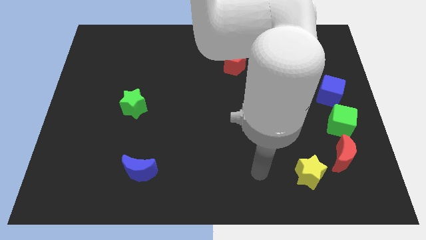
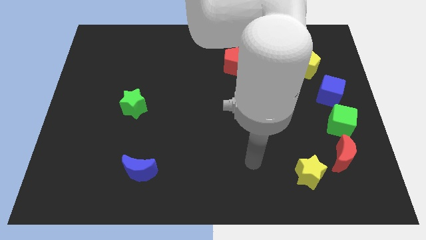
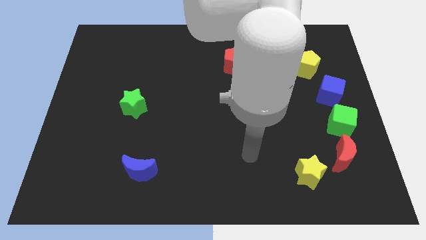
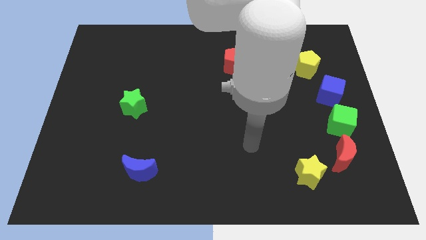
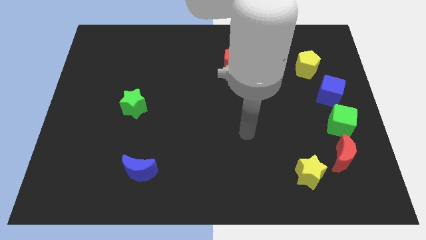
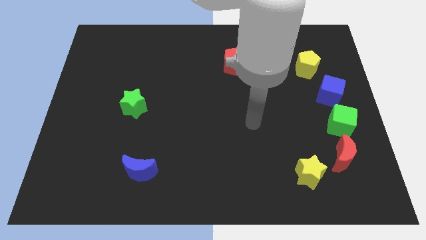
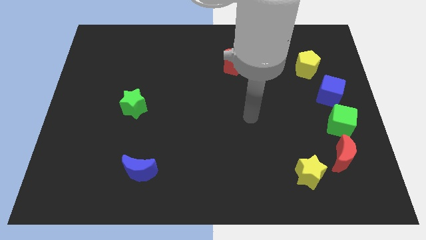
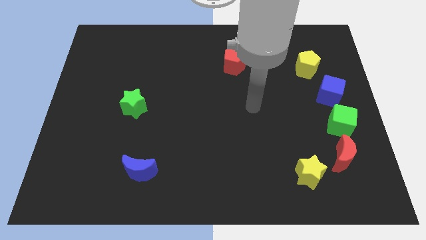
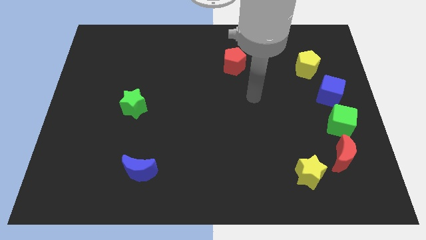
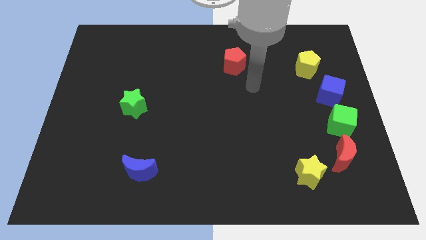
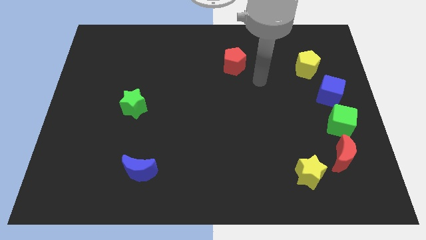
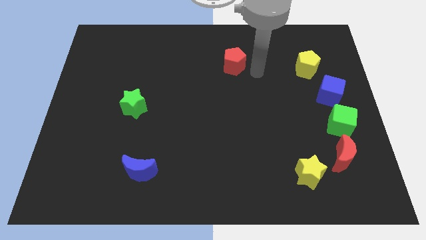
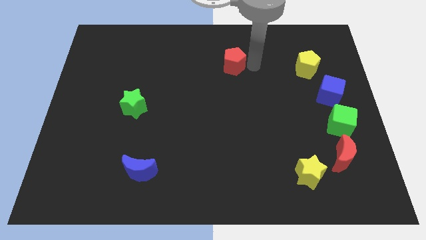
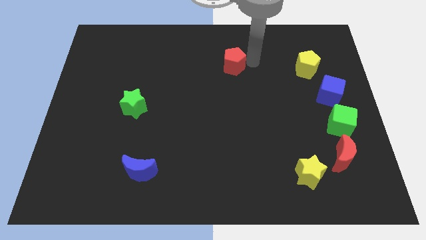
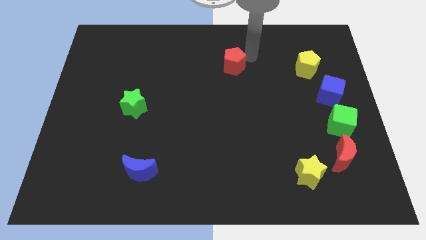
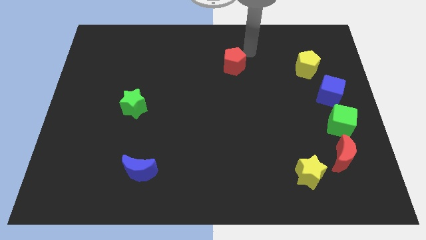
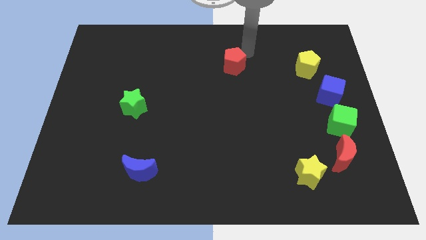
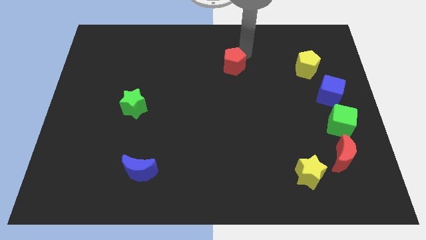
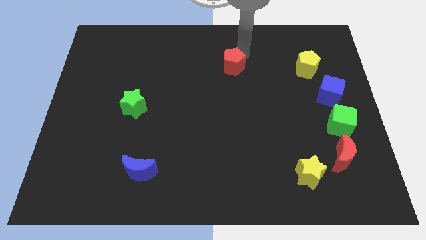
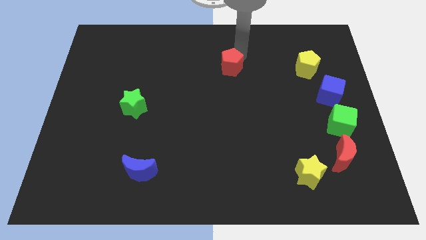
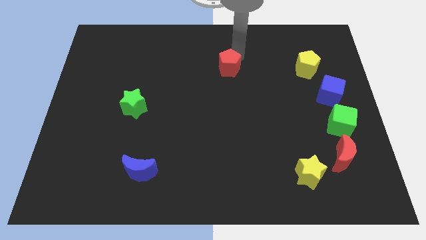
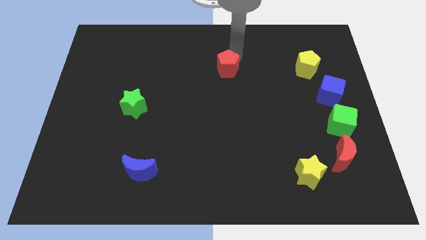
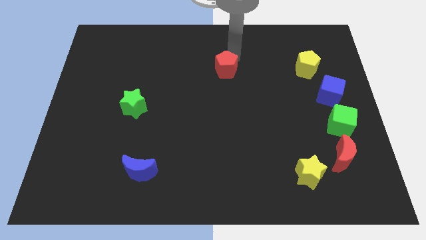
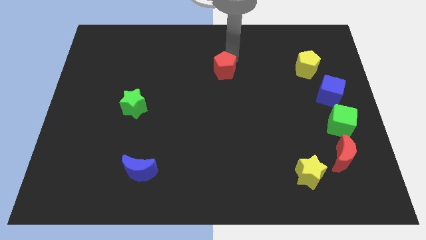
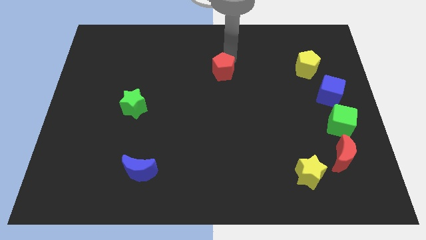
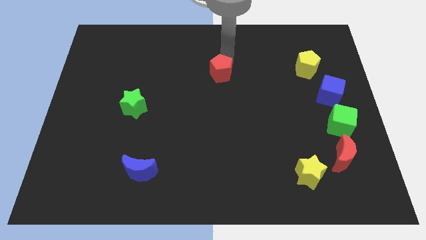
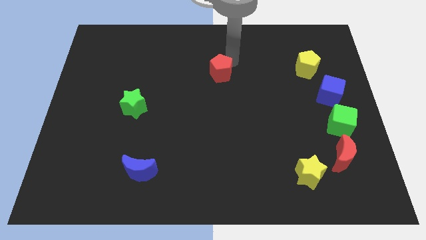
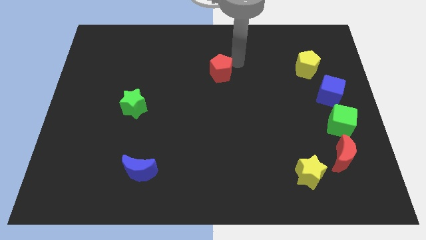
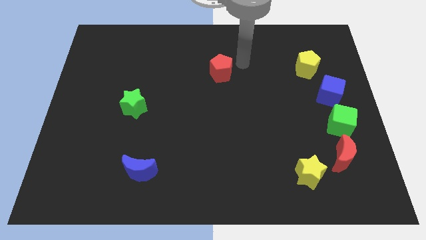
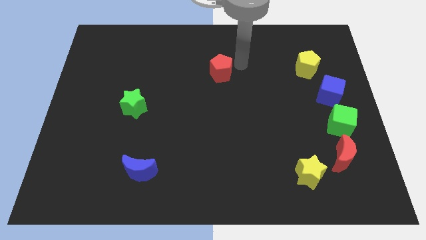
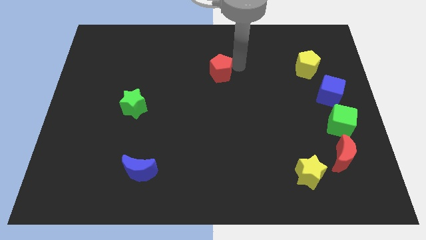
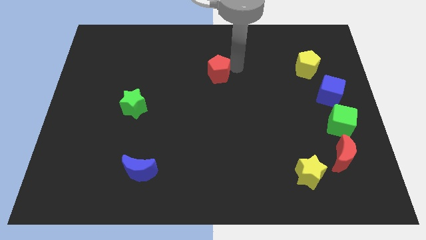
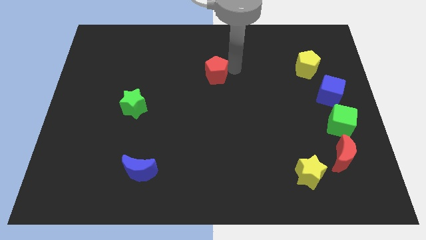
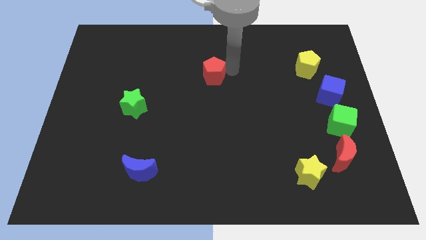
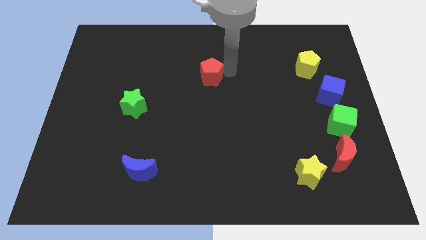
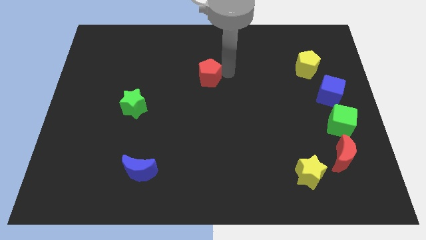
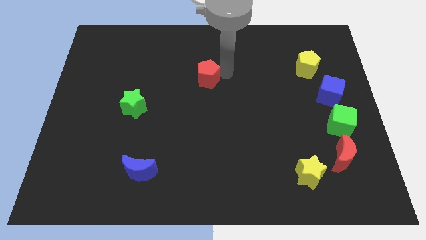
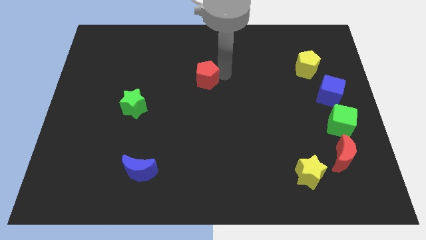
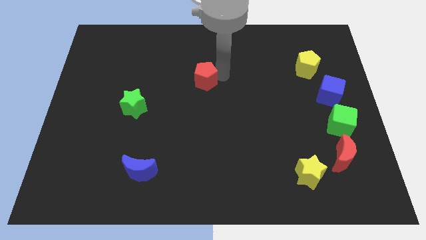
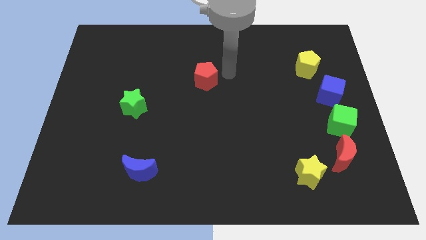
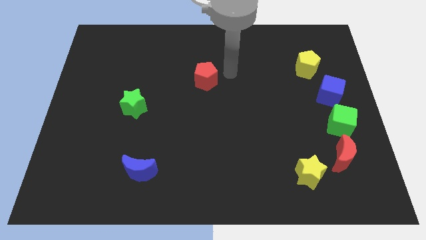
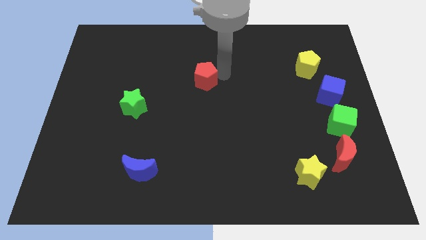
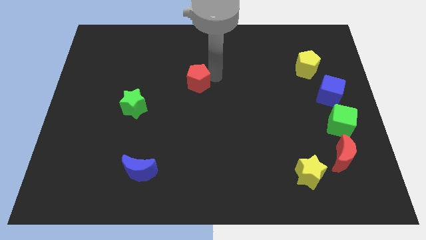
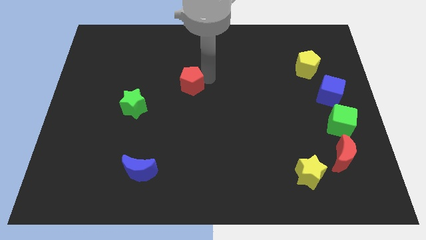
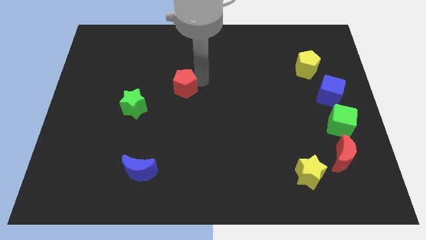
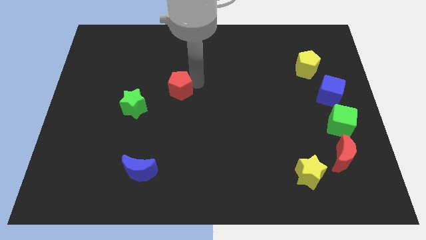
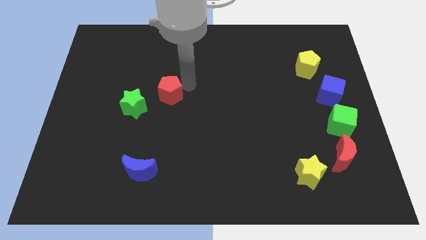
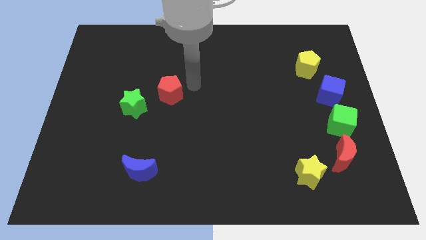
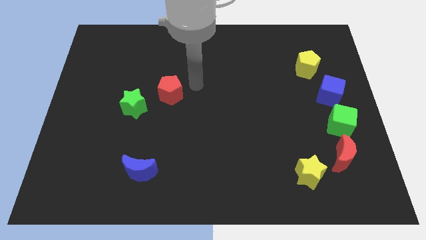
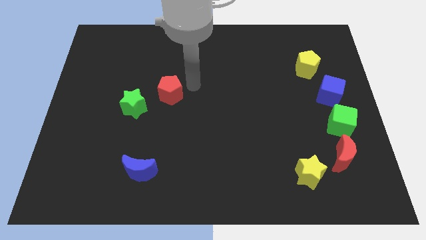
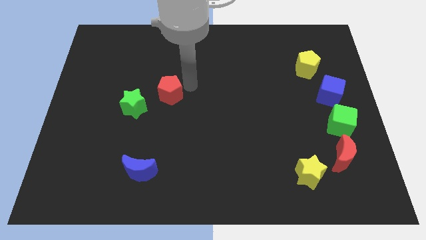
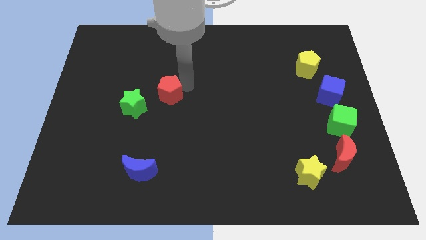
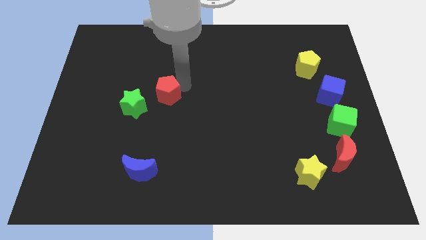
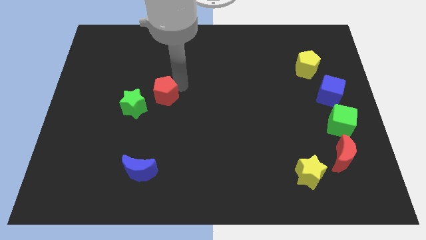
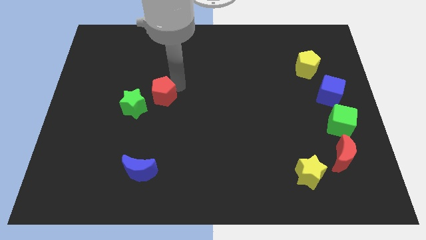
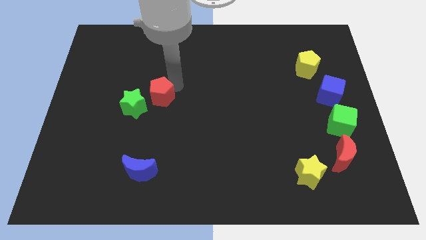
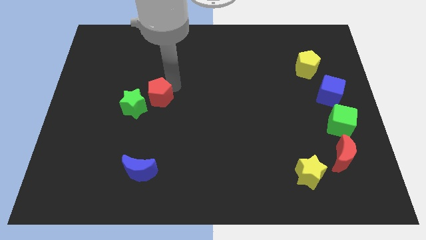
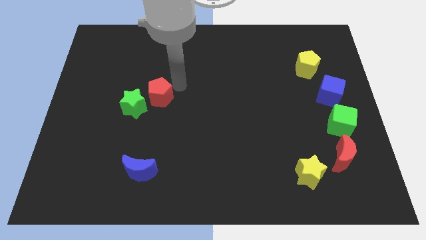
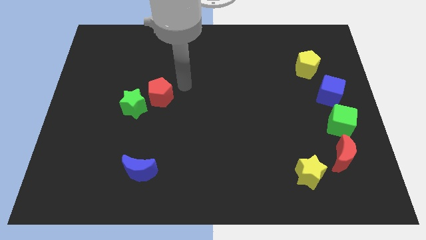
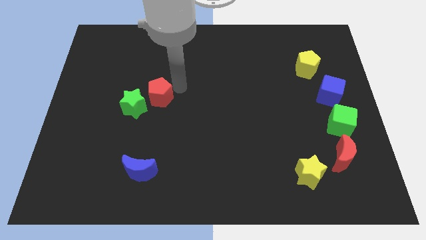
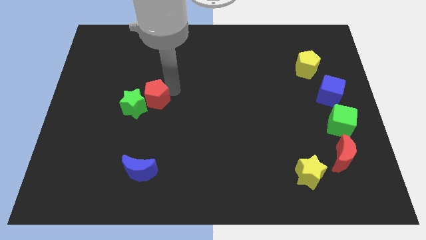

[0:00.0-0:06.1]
move the red pentagon next to the green star
